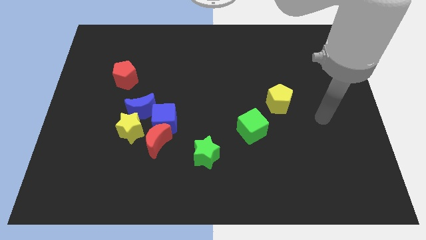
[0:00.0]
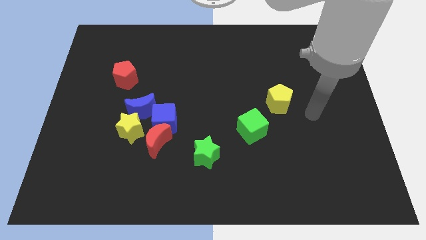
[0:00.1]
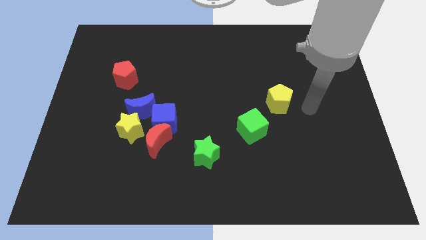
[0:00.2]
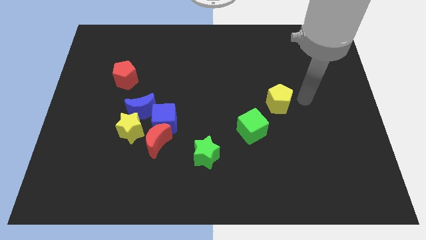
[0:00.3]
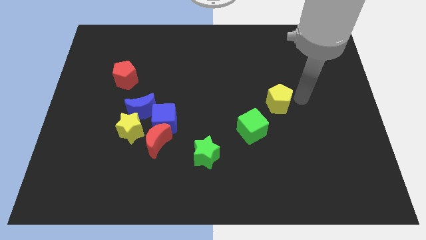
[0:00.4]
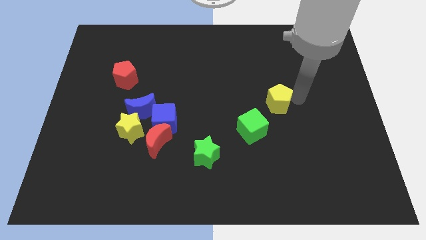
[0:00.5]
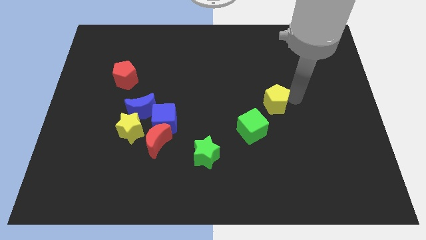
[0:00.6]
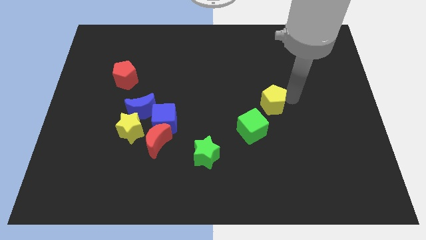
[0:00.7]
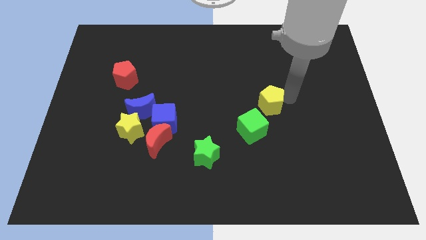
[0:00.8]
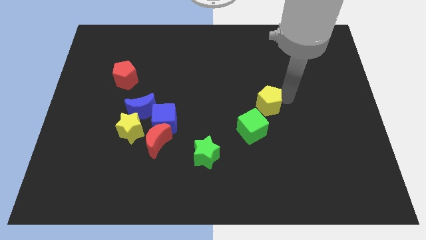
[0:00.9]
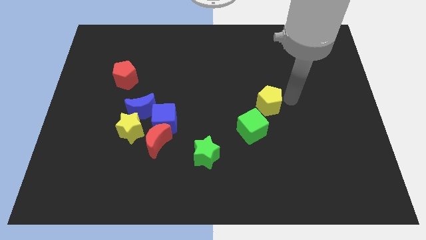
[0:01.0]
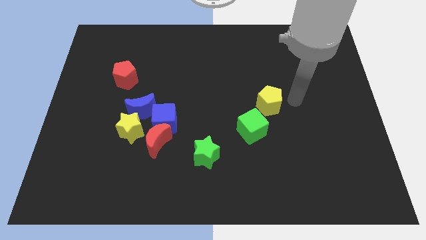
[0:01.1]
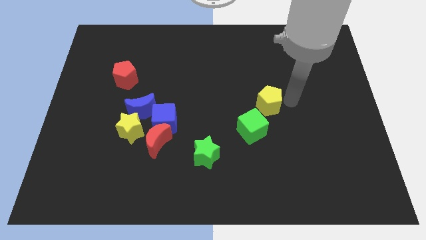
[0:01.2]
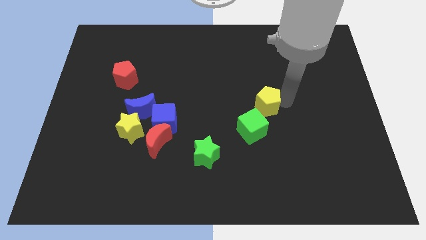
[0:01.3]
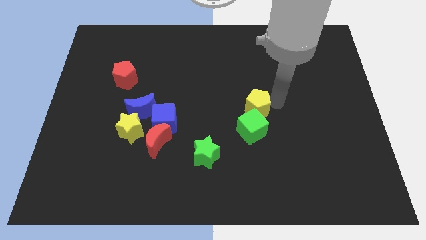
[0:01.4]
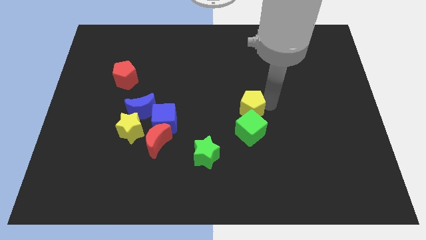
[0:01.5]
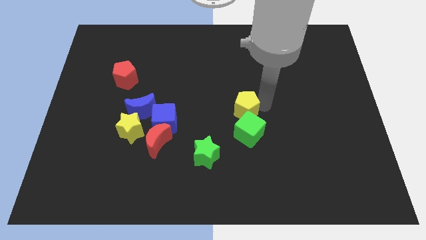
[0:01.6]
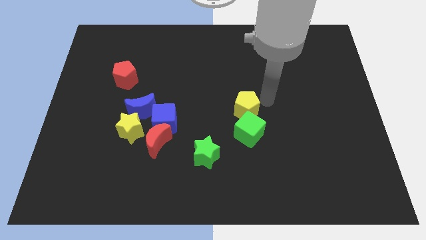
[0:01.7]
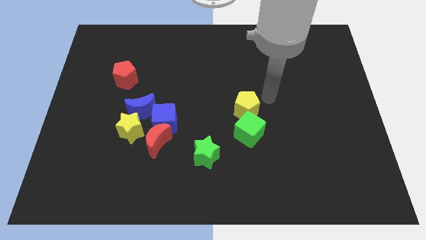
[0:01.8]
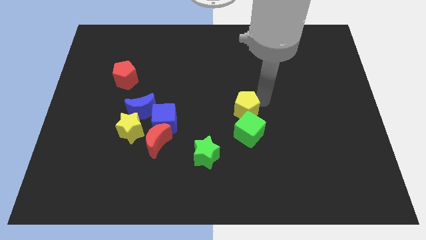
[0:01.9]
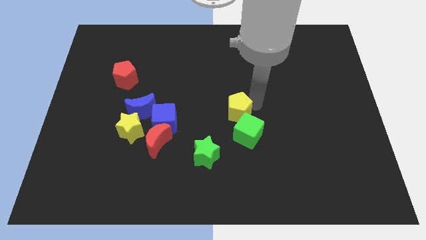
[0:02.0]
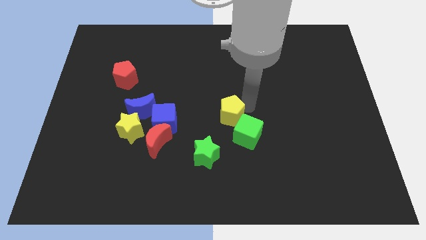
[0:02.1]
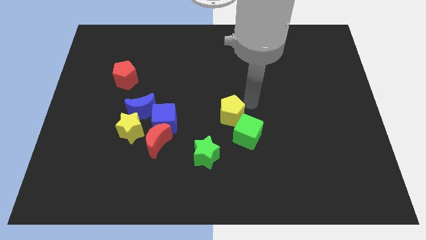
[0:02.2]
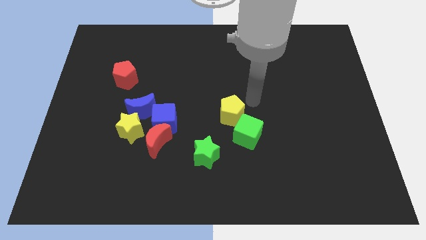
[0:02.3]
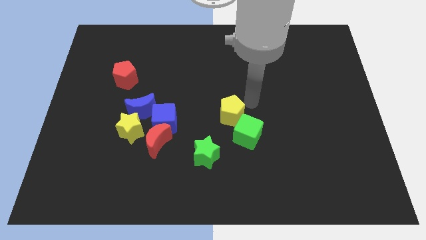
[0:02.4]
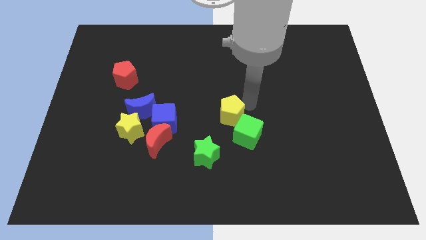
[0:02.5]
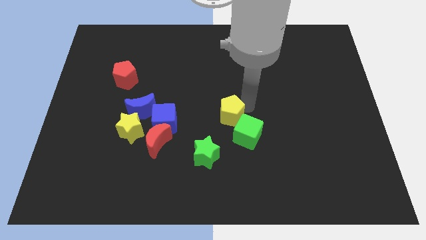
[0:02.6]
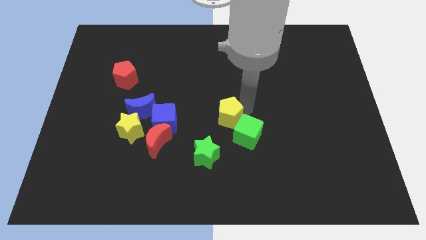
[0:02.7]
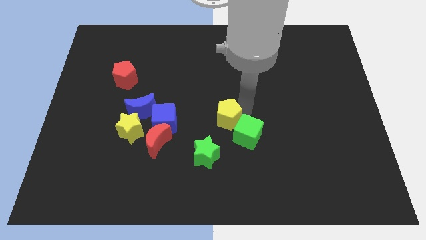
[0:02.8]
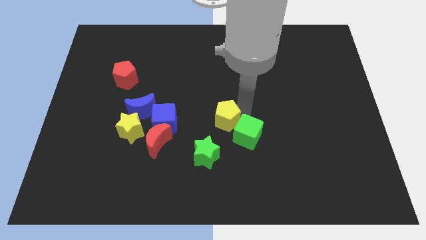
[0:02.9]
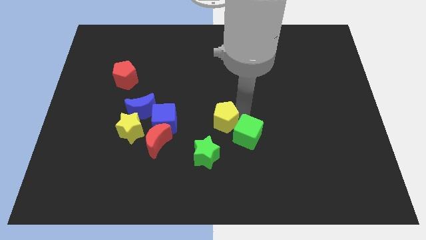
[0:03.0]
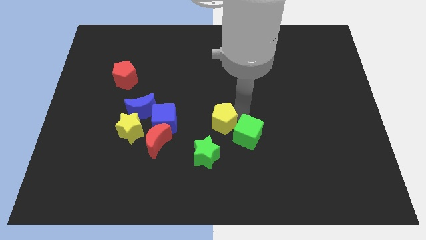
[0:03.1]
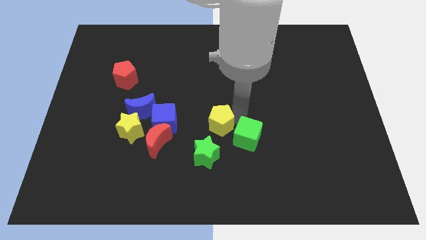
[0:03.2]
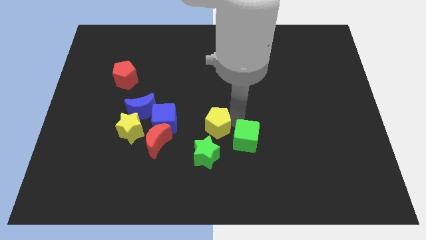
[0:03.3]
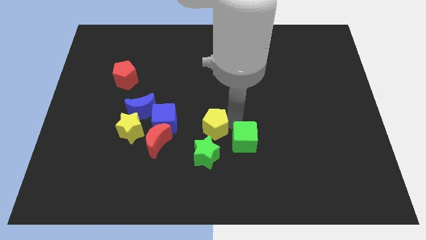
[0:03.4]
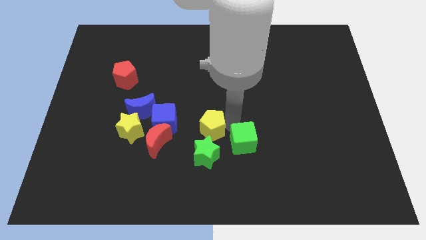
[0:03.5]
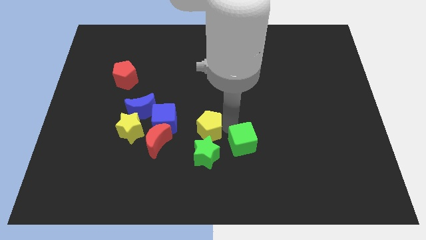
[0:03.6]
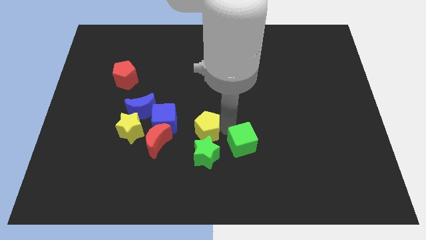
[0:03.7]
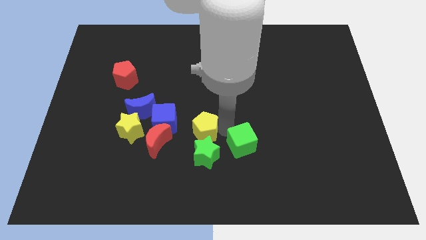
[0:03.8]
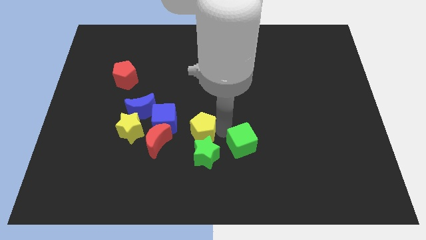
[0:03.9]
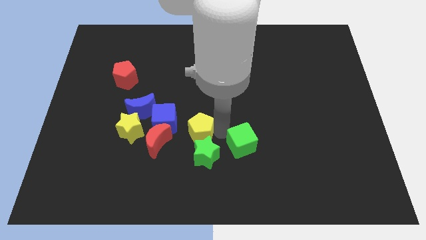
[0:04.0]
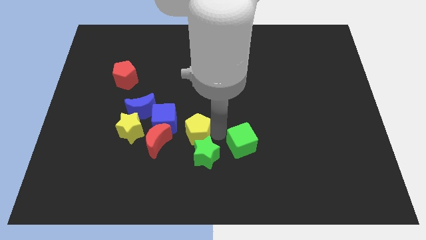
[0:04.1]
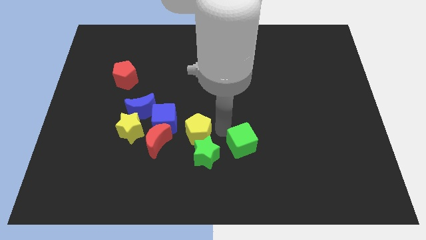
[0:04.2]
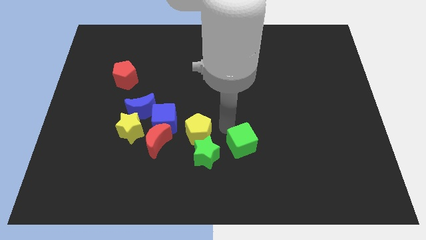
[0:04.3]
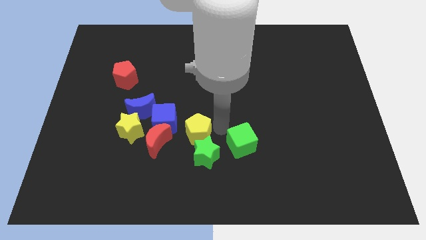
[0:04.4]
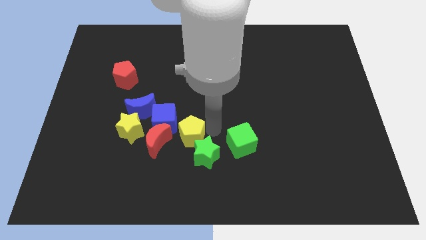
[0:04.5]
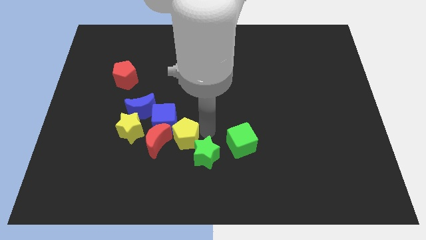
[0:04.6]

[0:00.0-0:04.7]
put the yellow pentagon next to the red moon

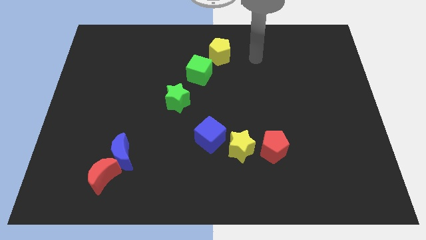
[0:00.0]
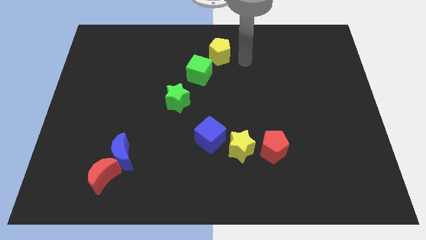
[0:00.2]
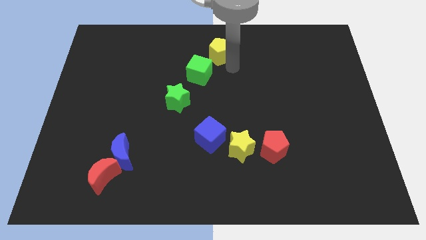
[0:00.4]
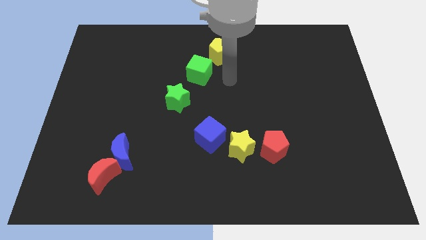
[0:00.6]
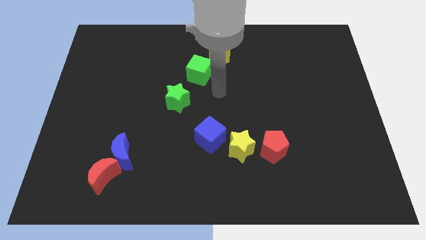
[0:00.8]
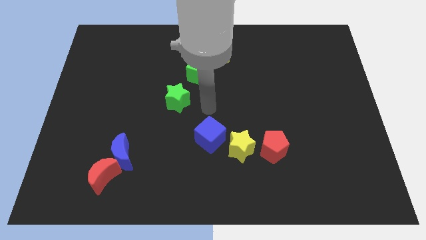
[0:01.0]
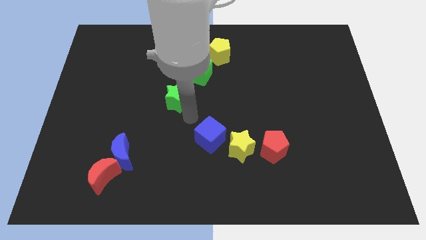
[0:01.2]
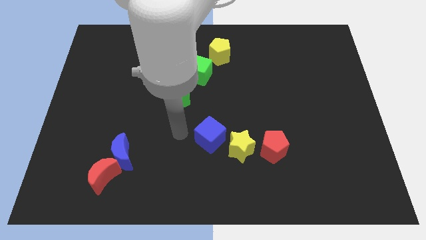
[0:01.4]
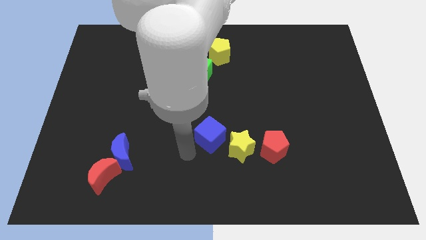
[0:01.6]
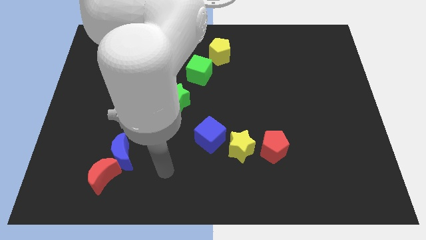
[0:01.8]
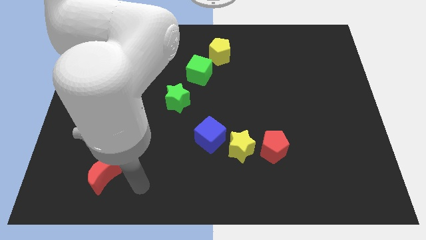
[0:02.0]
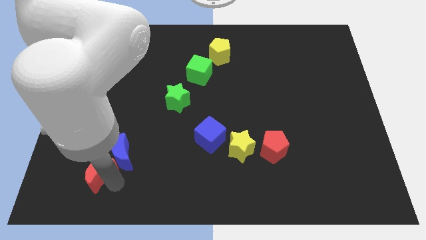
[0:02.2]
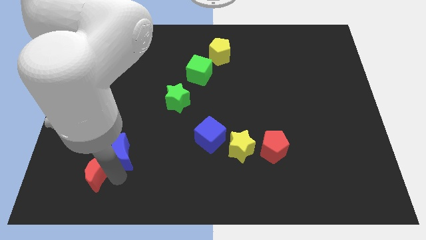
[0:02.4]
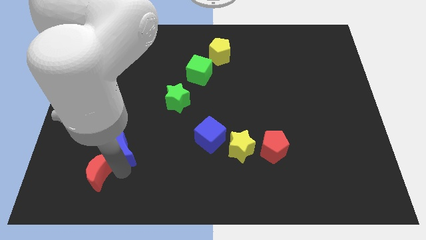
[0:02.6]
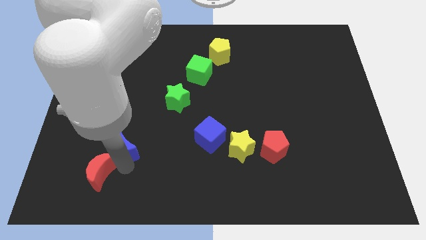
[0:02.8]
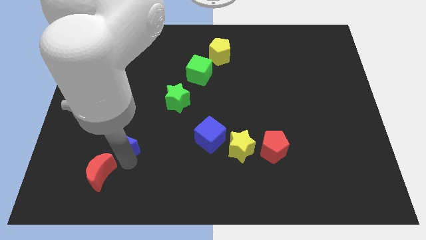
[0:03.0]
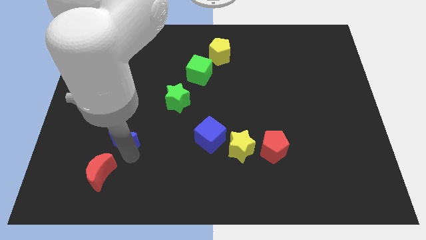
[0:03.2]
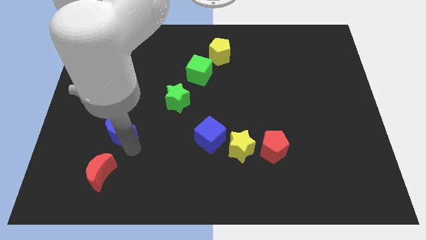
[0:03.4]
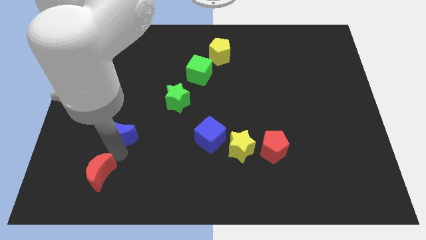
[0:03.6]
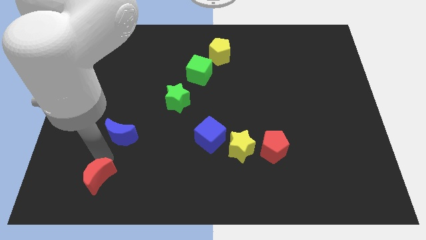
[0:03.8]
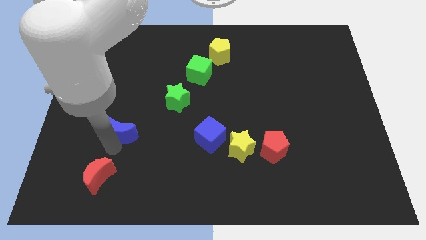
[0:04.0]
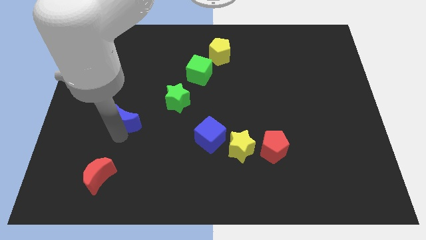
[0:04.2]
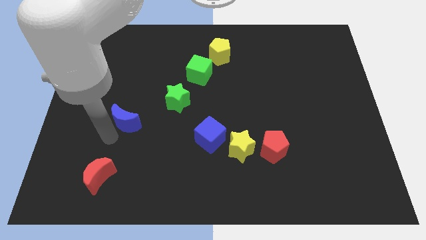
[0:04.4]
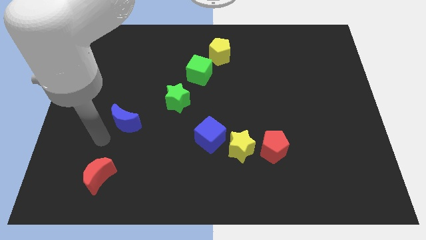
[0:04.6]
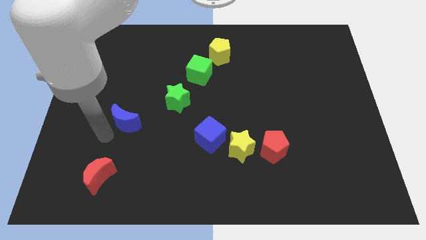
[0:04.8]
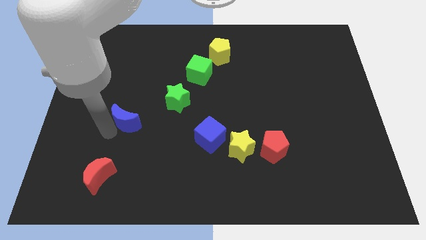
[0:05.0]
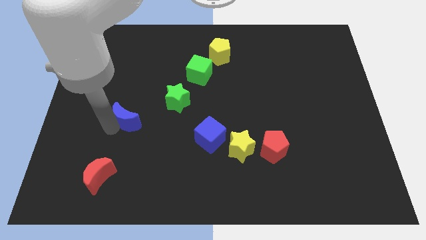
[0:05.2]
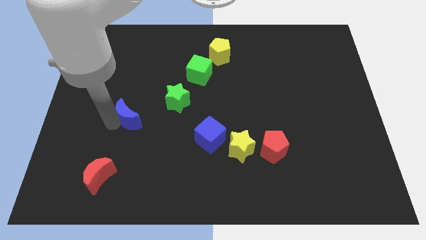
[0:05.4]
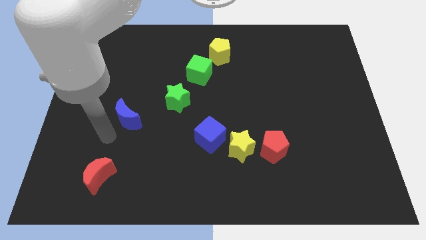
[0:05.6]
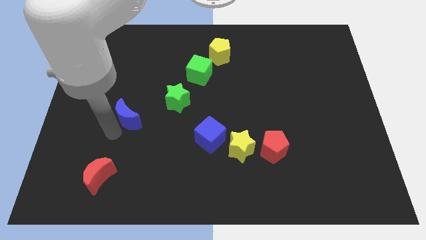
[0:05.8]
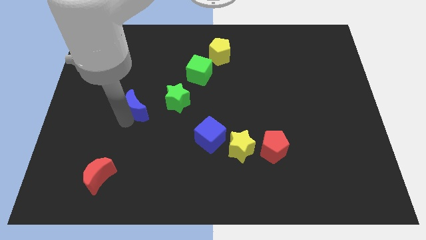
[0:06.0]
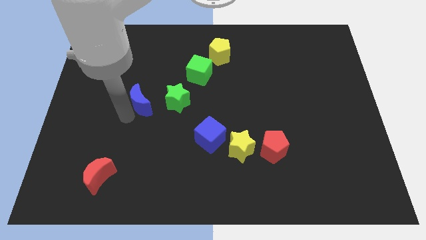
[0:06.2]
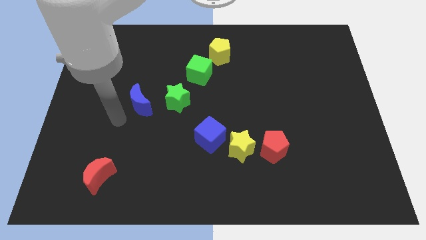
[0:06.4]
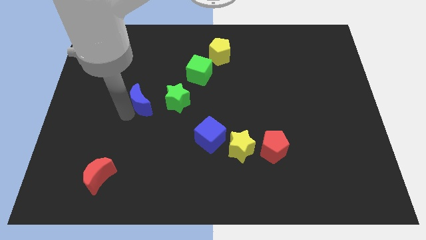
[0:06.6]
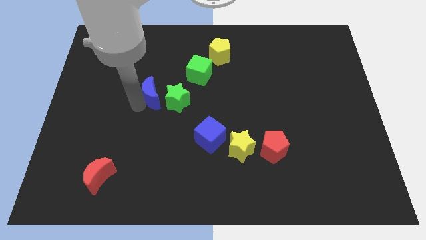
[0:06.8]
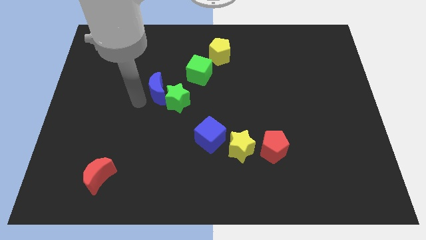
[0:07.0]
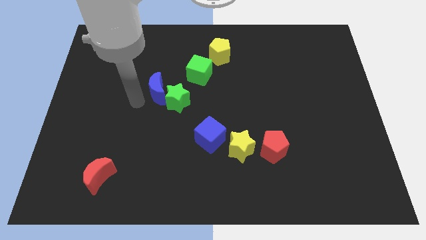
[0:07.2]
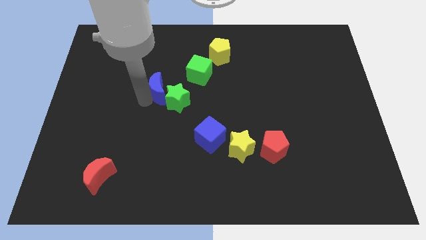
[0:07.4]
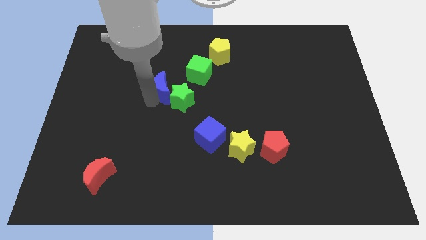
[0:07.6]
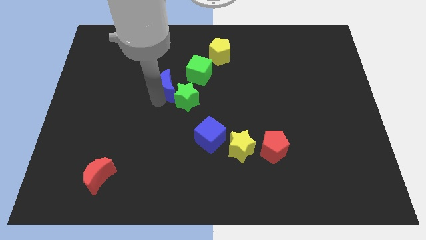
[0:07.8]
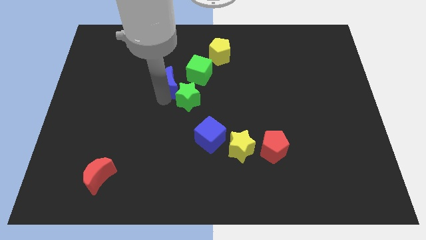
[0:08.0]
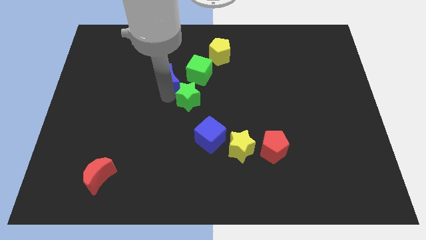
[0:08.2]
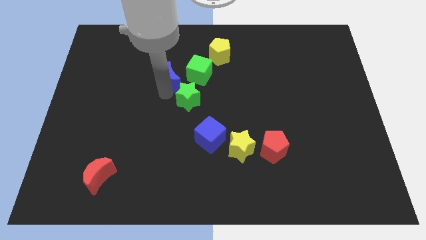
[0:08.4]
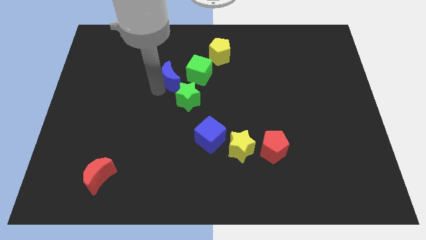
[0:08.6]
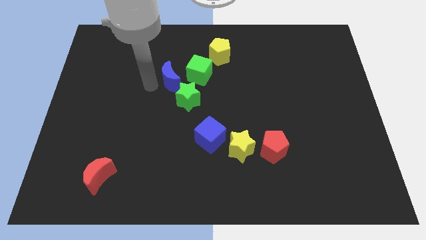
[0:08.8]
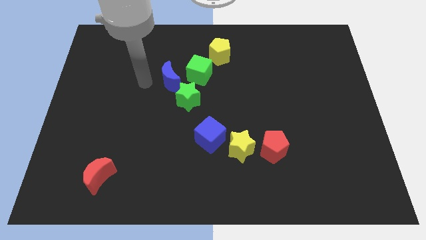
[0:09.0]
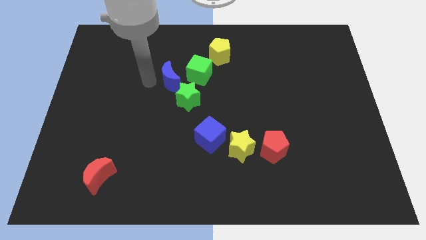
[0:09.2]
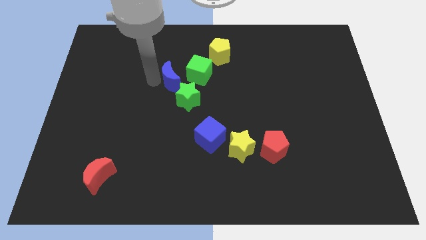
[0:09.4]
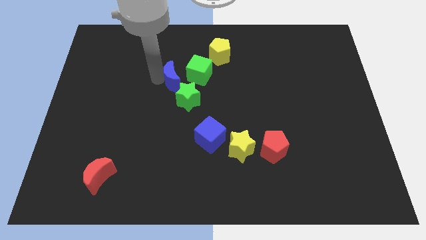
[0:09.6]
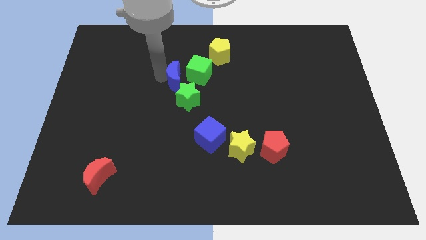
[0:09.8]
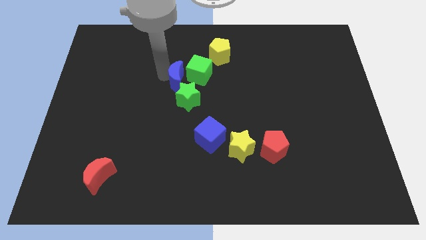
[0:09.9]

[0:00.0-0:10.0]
put the blue moon to the green cube
